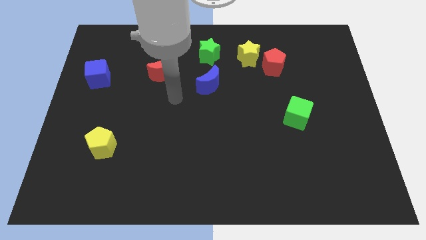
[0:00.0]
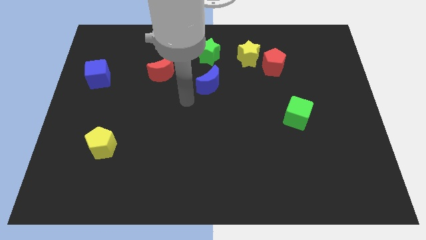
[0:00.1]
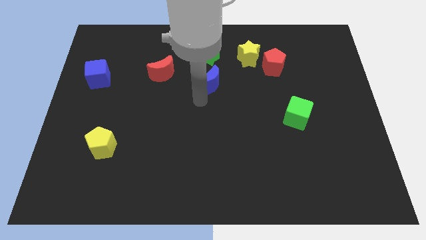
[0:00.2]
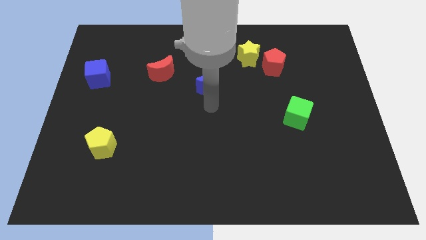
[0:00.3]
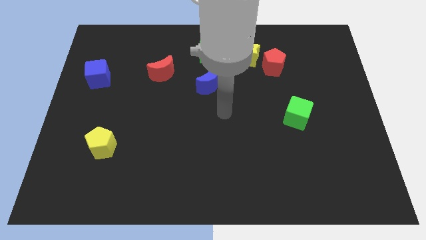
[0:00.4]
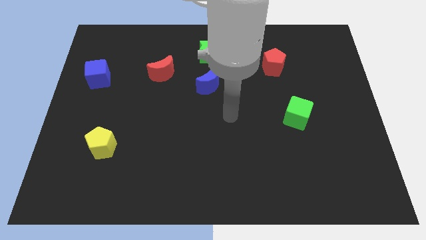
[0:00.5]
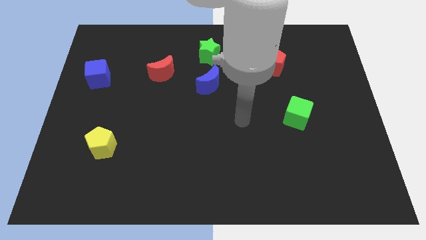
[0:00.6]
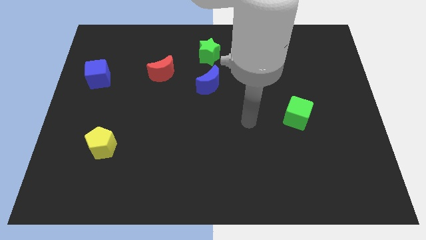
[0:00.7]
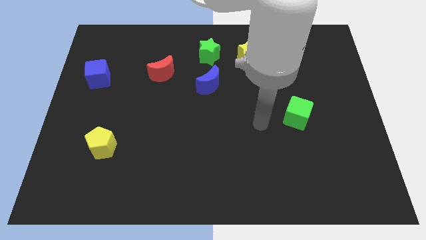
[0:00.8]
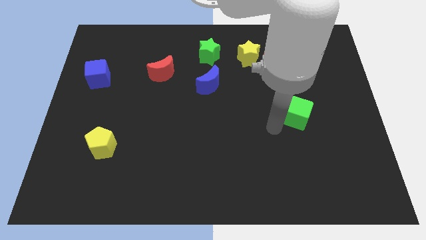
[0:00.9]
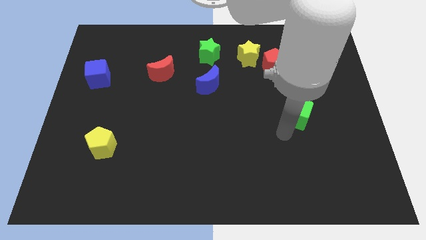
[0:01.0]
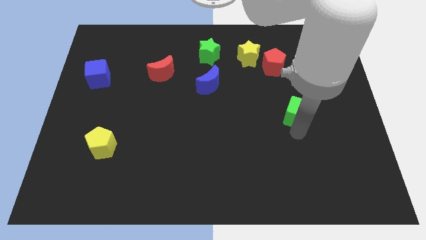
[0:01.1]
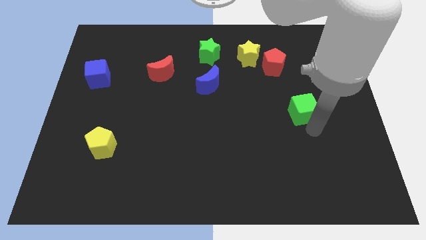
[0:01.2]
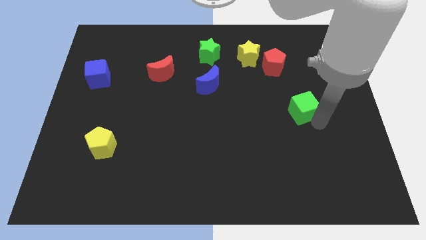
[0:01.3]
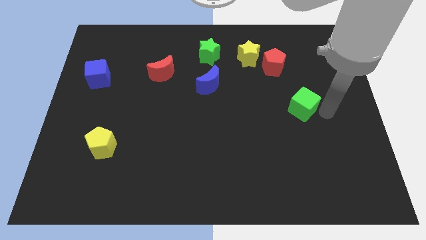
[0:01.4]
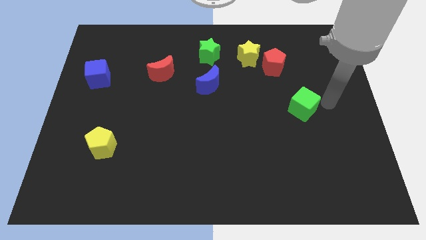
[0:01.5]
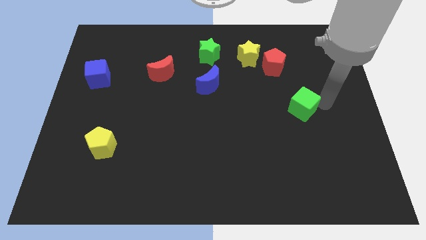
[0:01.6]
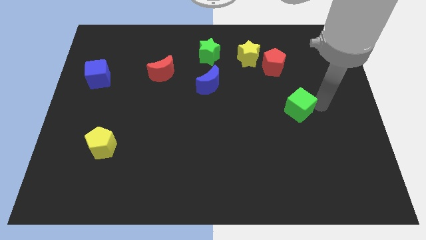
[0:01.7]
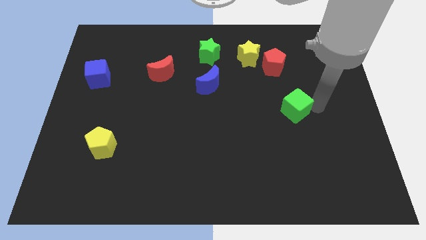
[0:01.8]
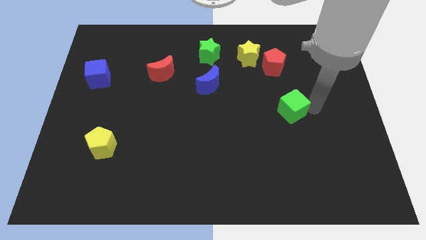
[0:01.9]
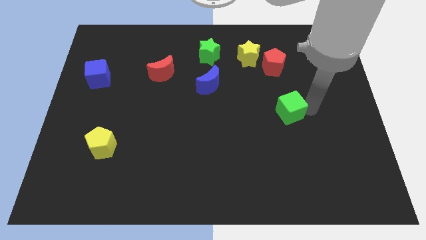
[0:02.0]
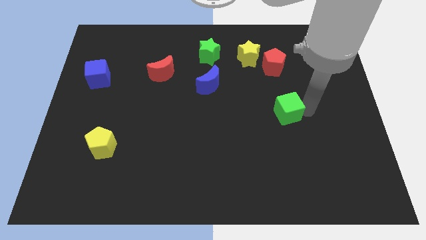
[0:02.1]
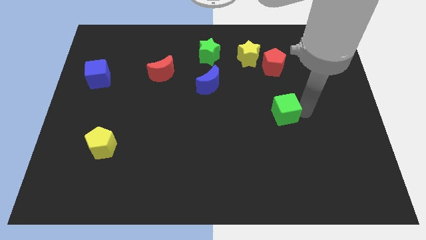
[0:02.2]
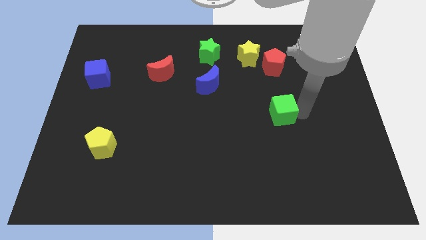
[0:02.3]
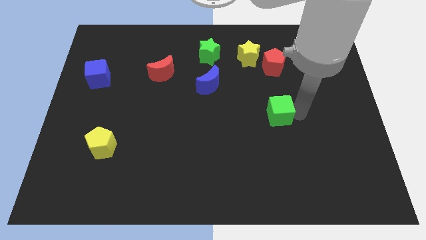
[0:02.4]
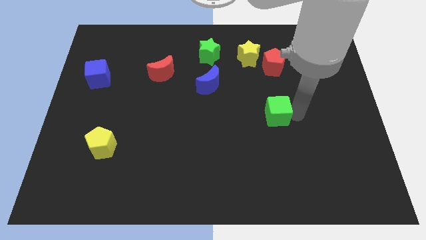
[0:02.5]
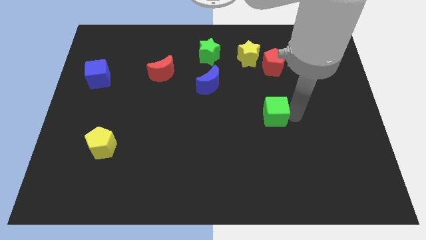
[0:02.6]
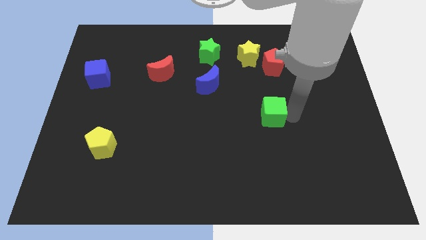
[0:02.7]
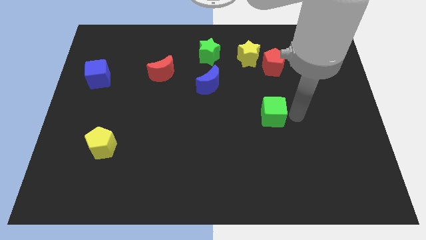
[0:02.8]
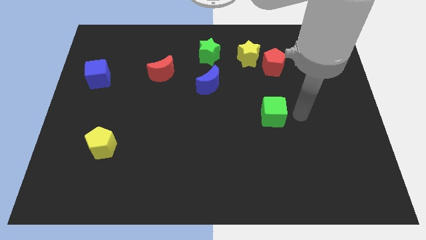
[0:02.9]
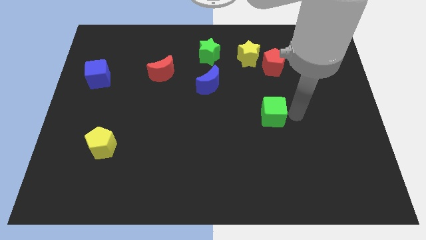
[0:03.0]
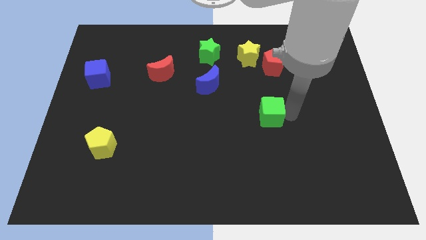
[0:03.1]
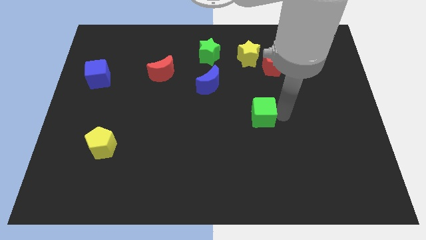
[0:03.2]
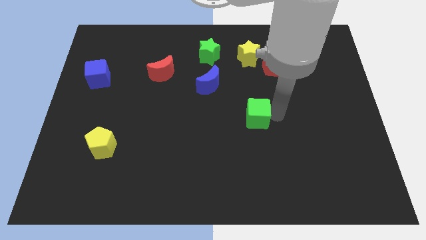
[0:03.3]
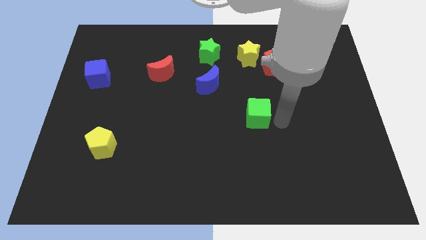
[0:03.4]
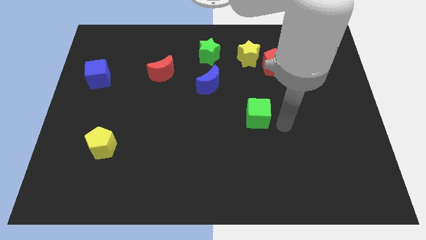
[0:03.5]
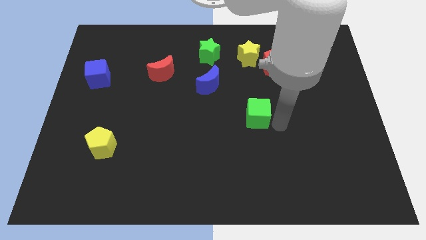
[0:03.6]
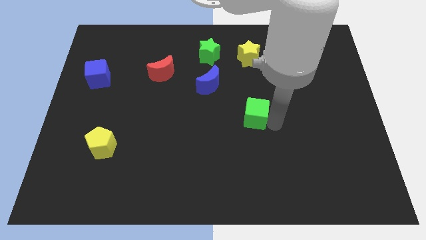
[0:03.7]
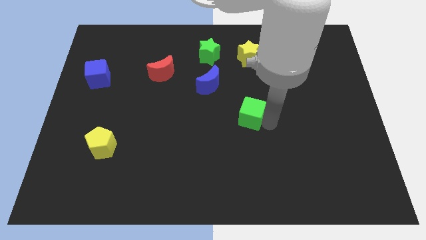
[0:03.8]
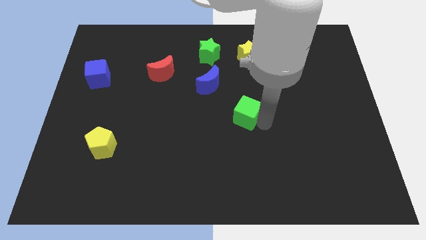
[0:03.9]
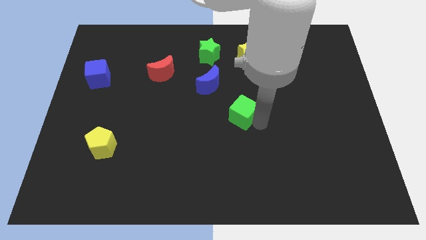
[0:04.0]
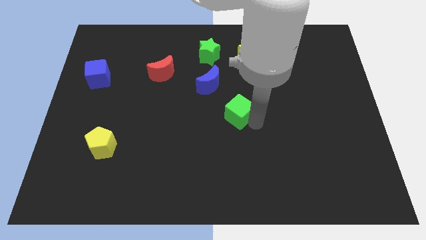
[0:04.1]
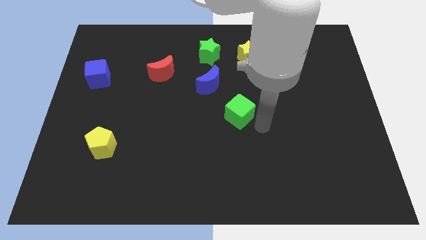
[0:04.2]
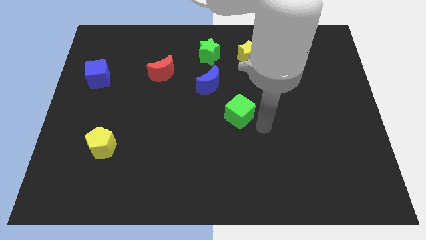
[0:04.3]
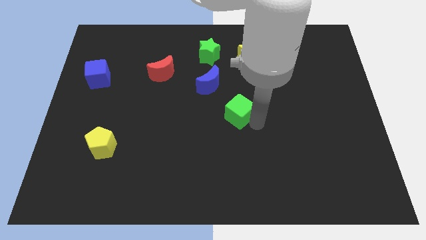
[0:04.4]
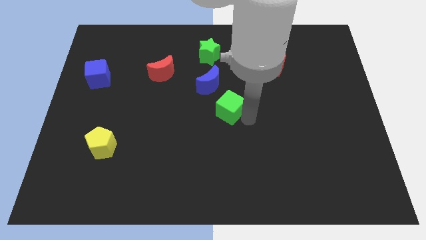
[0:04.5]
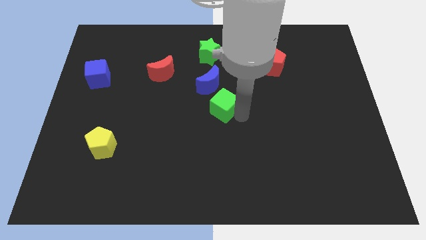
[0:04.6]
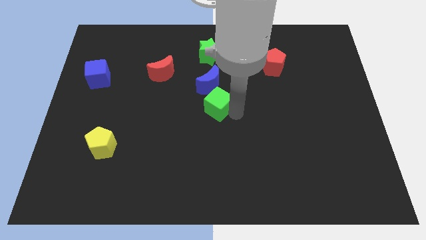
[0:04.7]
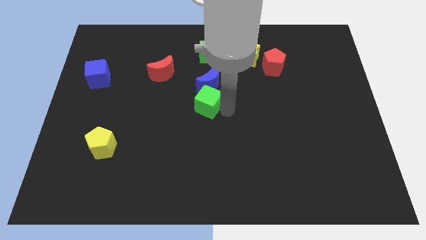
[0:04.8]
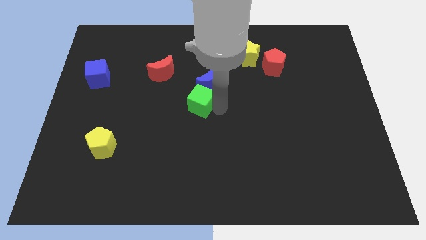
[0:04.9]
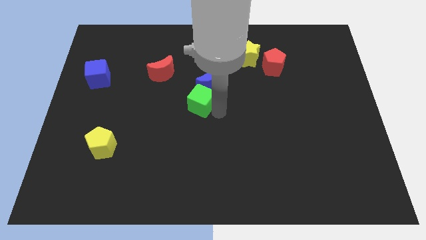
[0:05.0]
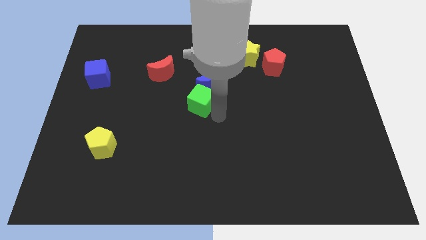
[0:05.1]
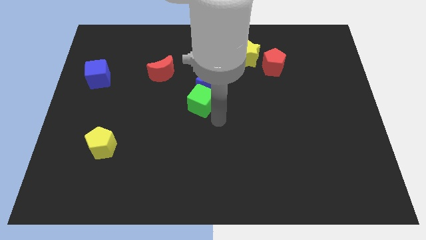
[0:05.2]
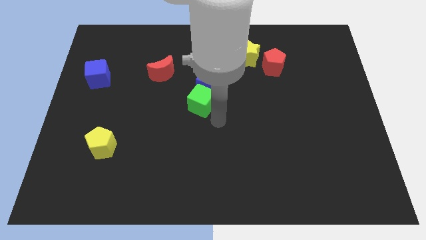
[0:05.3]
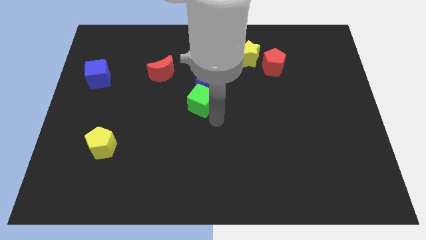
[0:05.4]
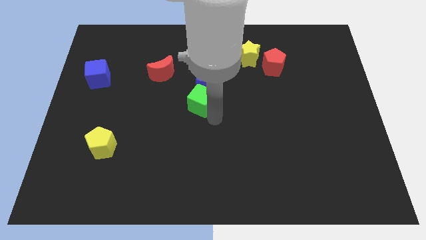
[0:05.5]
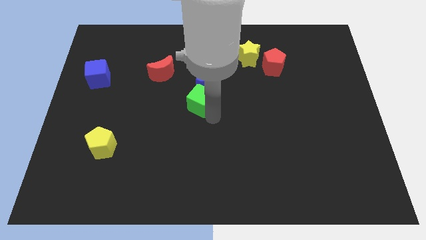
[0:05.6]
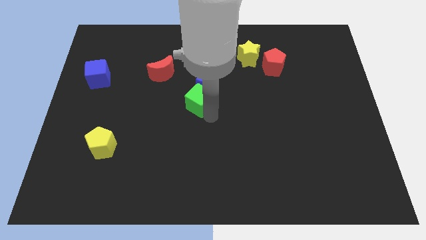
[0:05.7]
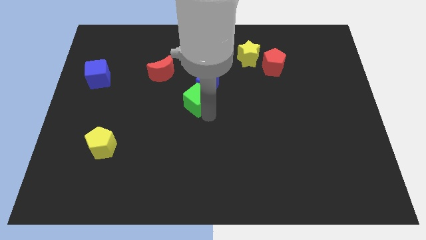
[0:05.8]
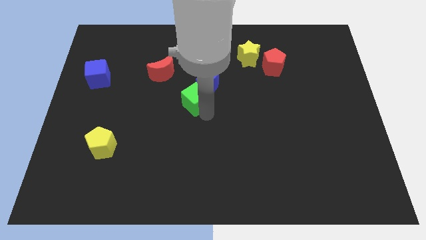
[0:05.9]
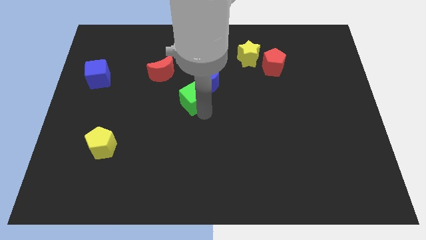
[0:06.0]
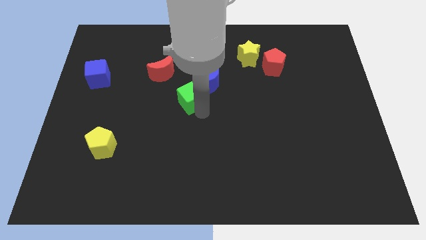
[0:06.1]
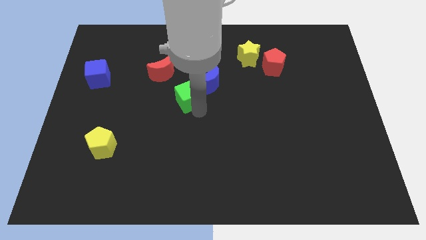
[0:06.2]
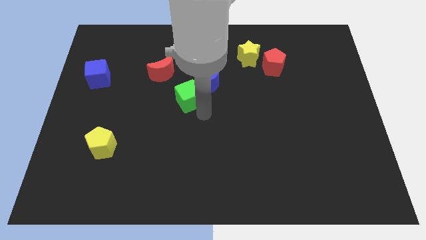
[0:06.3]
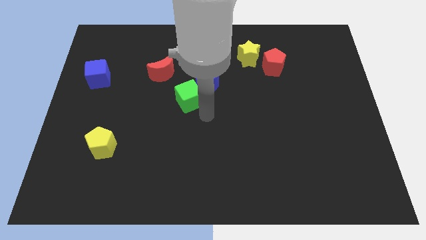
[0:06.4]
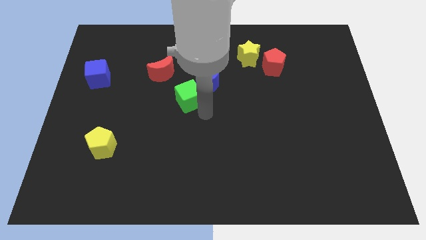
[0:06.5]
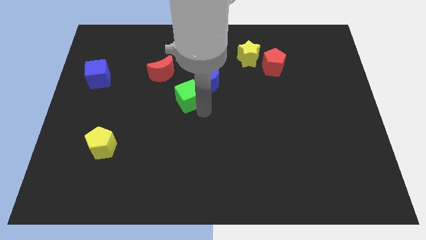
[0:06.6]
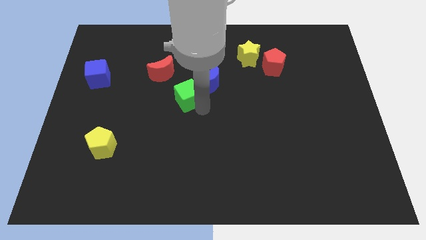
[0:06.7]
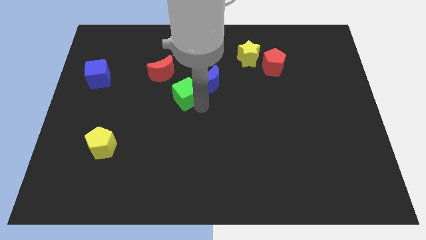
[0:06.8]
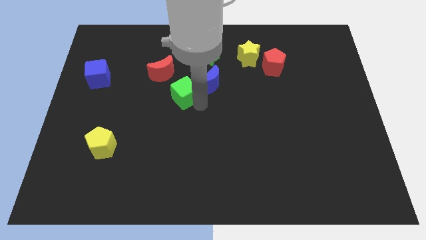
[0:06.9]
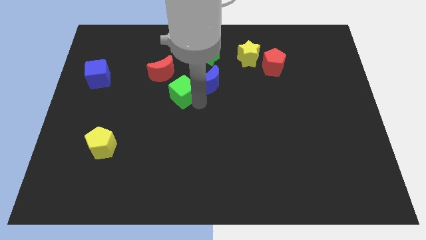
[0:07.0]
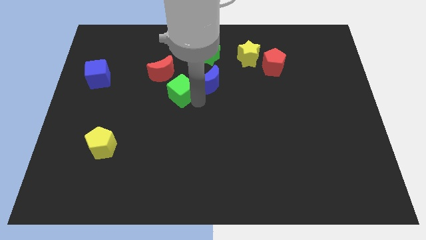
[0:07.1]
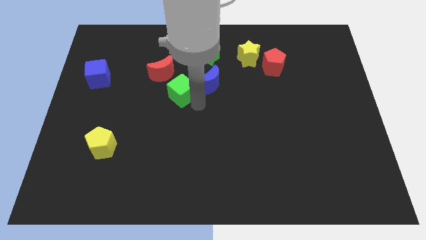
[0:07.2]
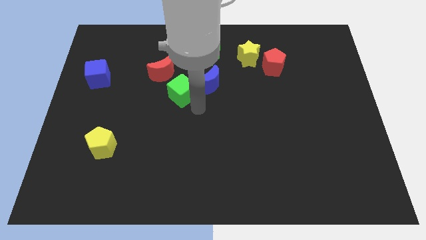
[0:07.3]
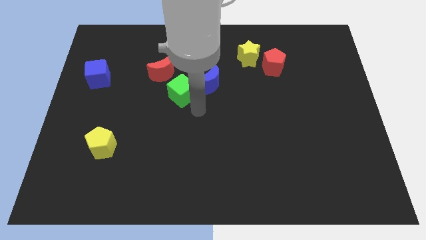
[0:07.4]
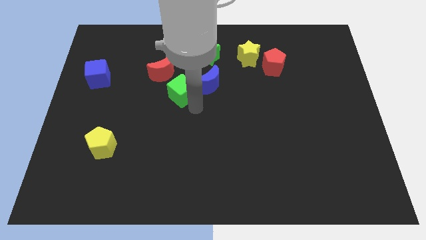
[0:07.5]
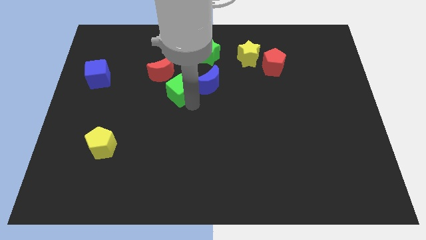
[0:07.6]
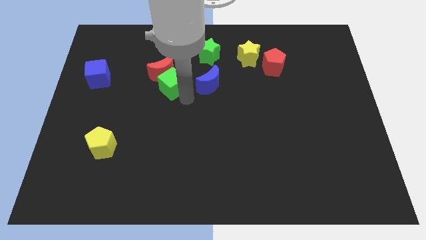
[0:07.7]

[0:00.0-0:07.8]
push the green cube to the red moon

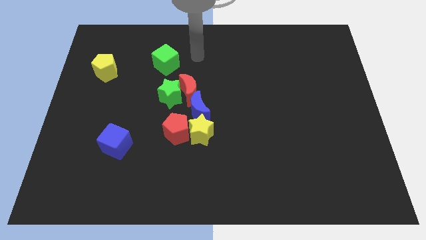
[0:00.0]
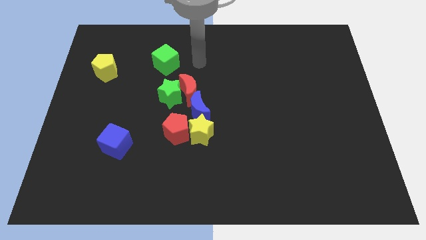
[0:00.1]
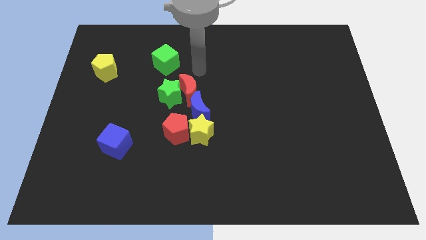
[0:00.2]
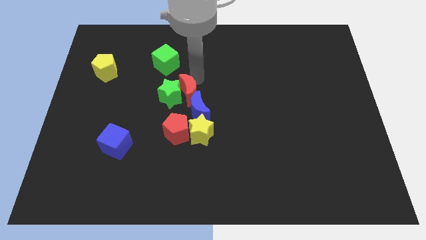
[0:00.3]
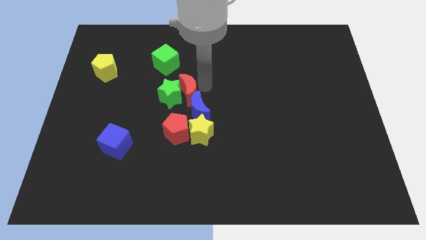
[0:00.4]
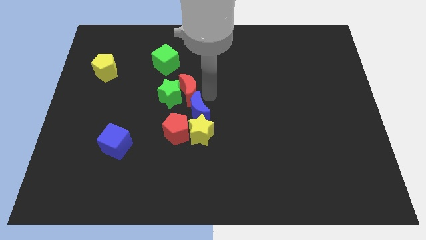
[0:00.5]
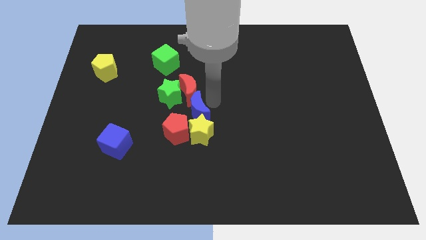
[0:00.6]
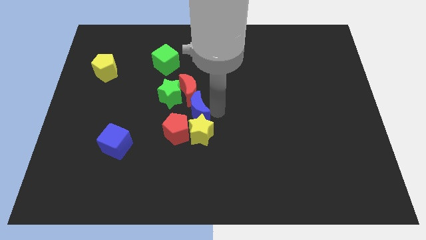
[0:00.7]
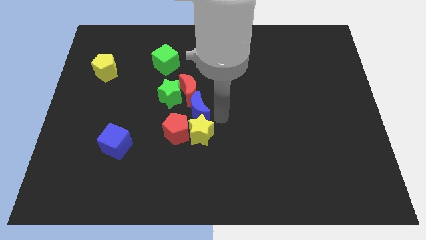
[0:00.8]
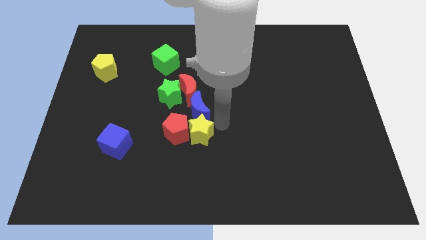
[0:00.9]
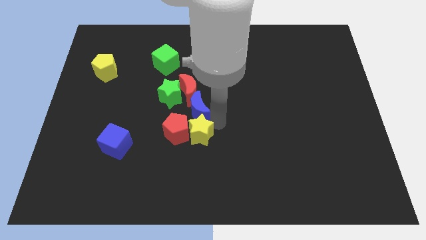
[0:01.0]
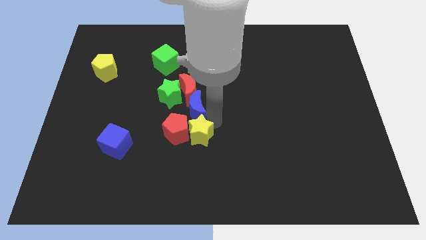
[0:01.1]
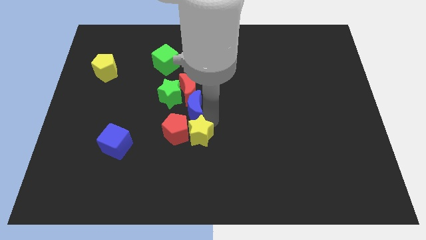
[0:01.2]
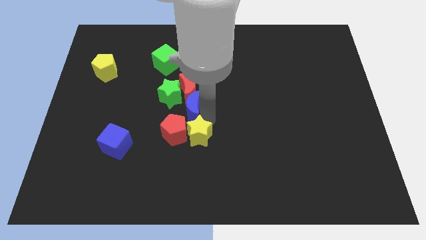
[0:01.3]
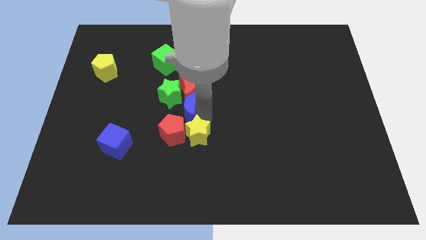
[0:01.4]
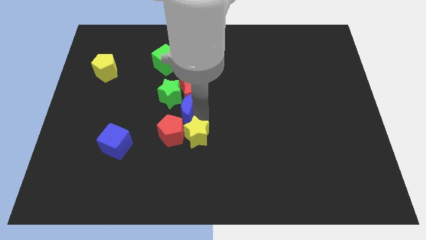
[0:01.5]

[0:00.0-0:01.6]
put the blue moon next to the green star
